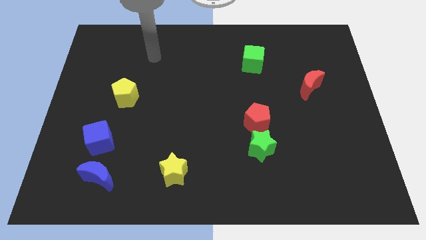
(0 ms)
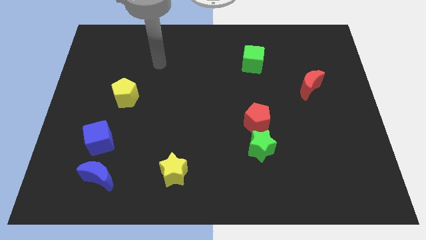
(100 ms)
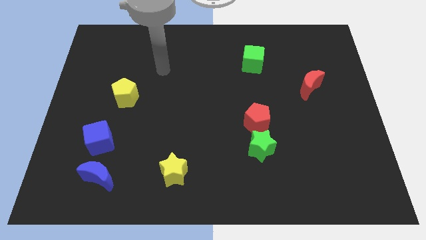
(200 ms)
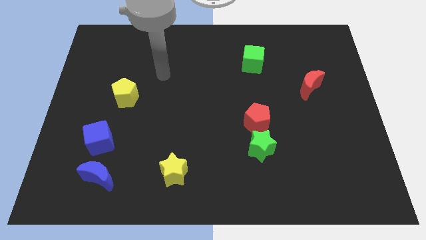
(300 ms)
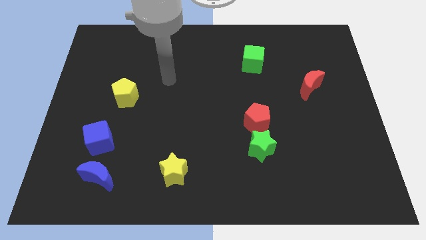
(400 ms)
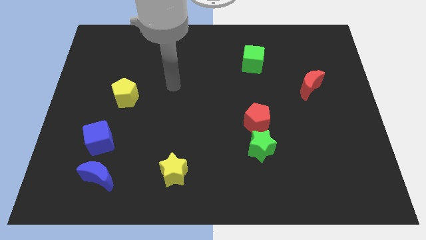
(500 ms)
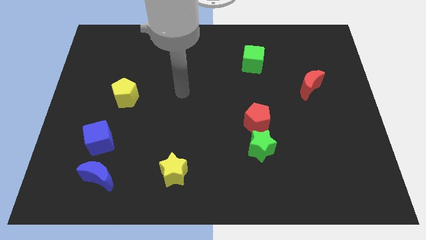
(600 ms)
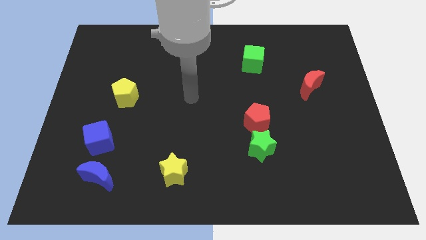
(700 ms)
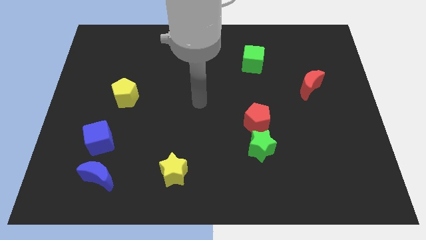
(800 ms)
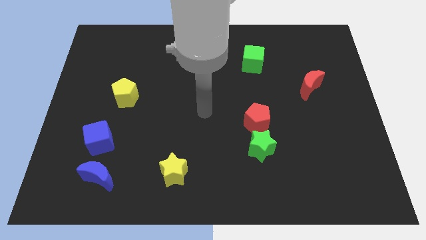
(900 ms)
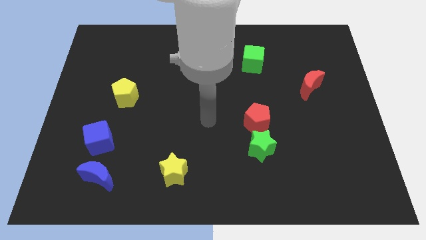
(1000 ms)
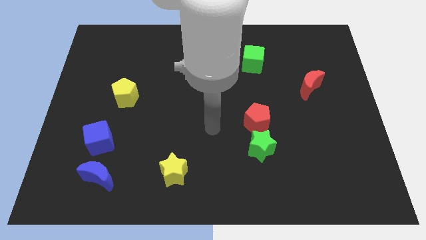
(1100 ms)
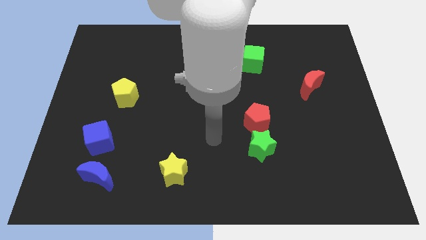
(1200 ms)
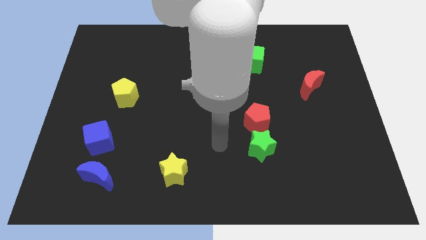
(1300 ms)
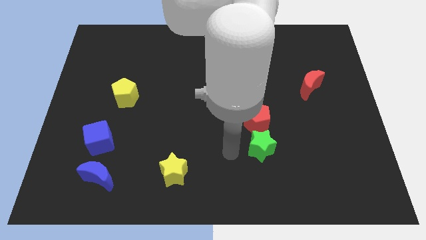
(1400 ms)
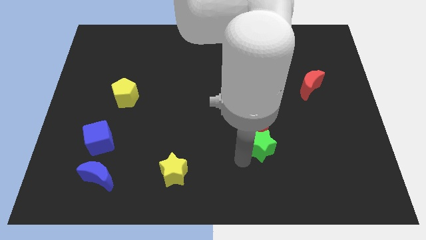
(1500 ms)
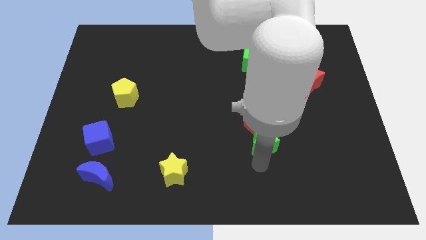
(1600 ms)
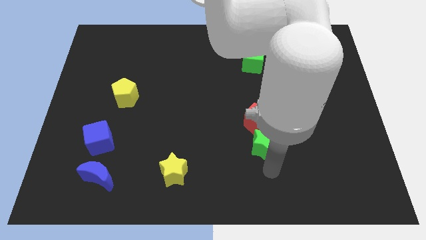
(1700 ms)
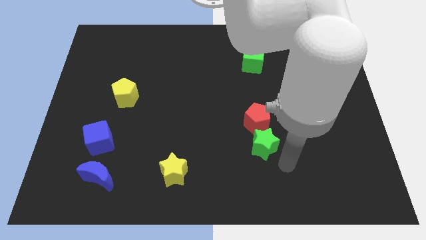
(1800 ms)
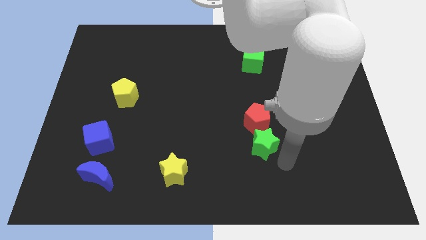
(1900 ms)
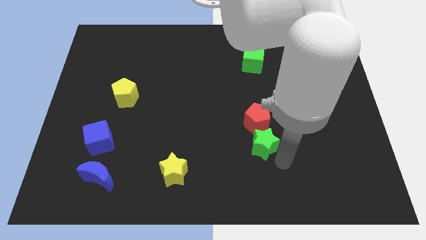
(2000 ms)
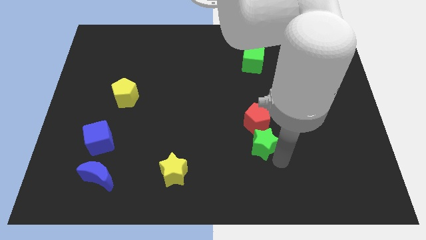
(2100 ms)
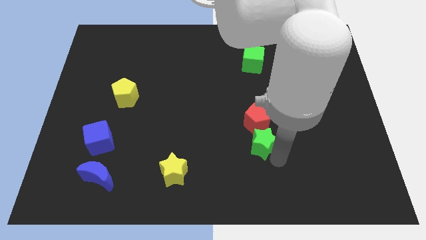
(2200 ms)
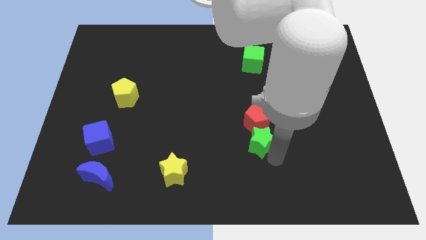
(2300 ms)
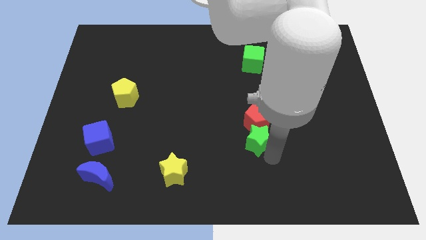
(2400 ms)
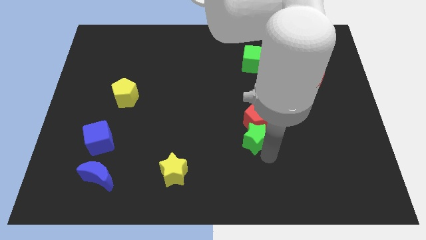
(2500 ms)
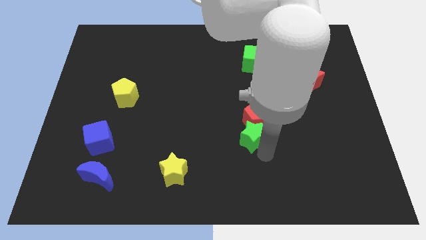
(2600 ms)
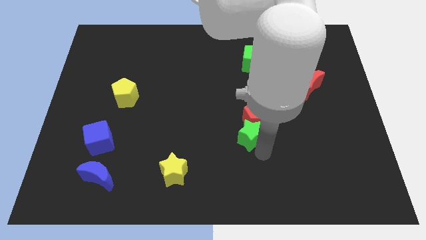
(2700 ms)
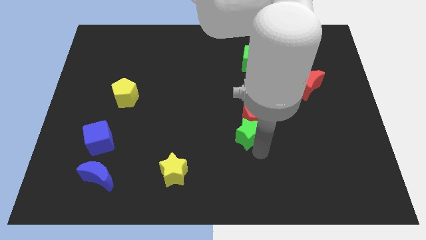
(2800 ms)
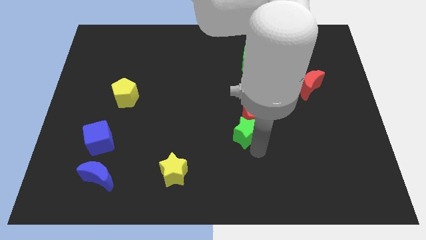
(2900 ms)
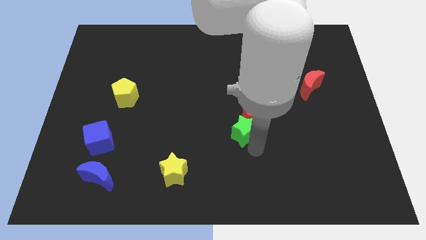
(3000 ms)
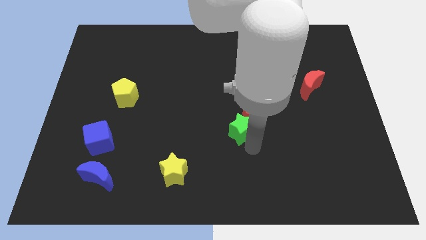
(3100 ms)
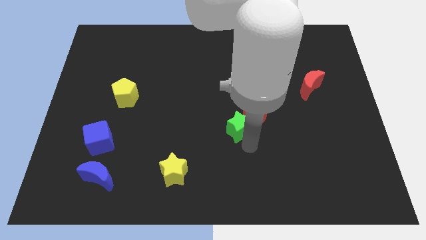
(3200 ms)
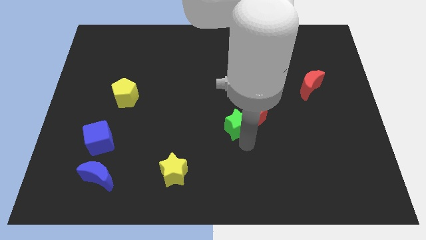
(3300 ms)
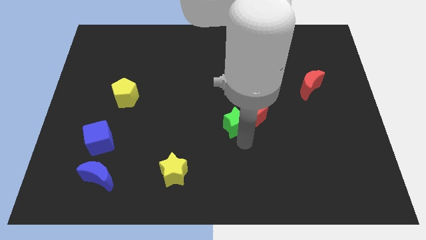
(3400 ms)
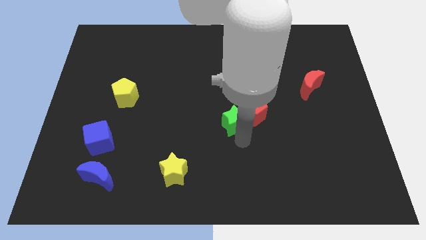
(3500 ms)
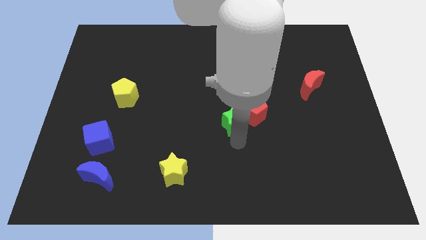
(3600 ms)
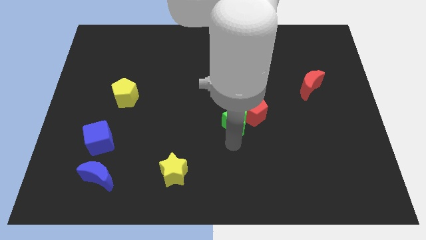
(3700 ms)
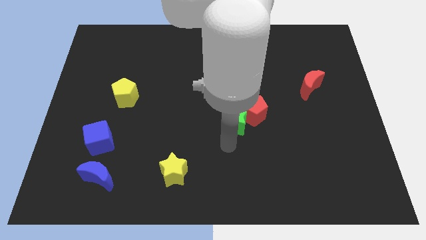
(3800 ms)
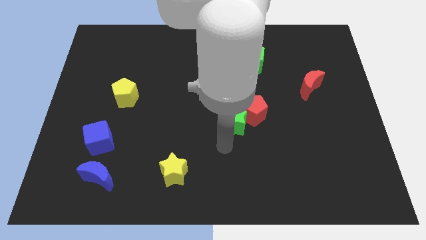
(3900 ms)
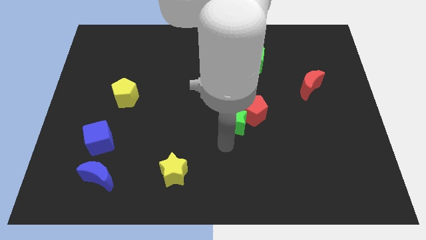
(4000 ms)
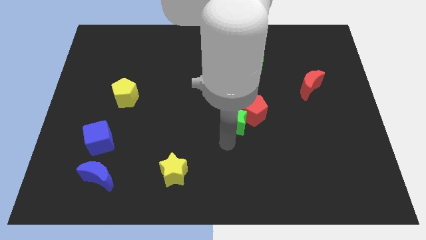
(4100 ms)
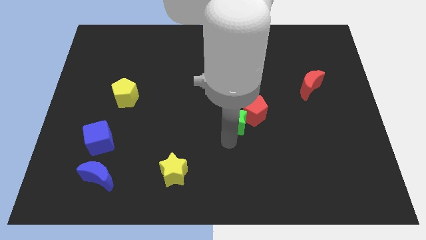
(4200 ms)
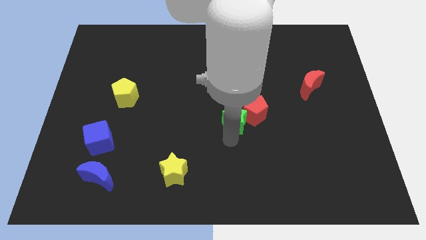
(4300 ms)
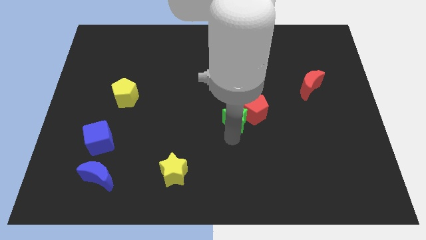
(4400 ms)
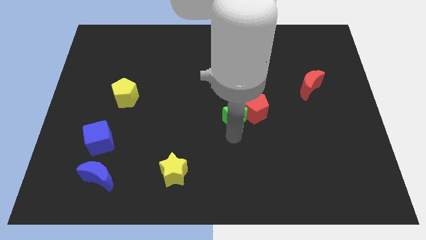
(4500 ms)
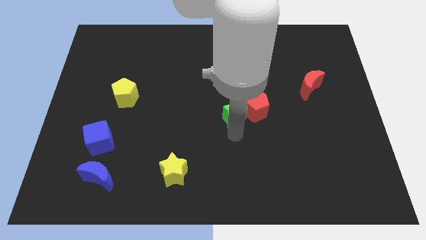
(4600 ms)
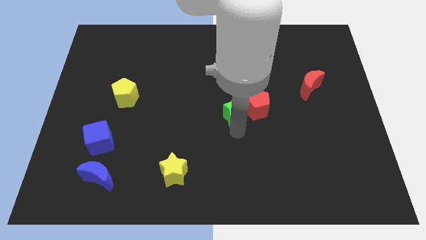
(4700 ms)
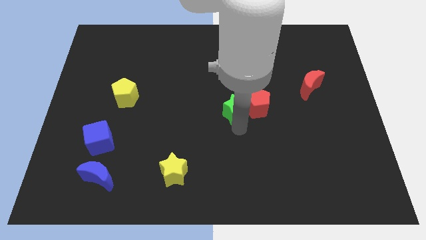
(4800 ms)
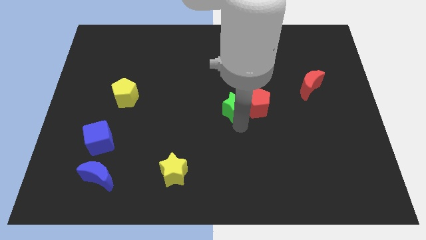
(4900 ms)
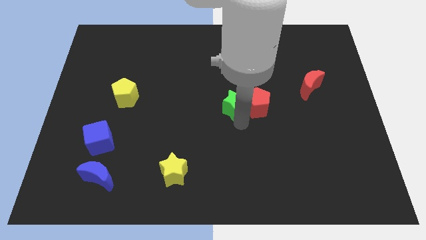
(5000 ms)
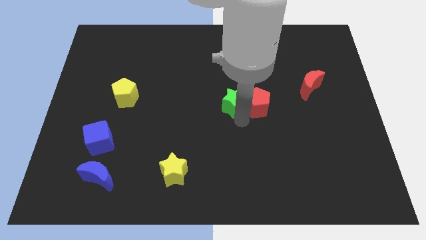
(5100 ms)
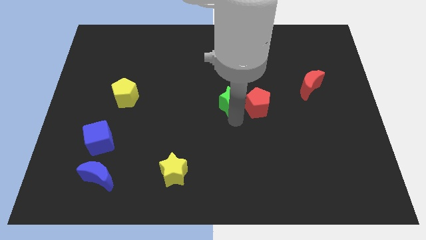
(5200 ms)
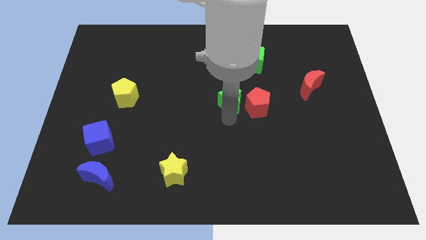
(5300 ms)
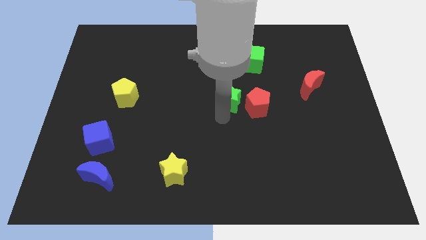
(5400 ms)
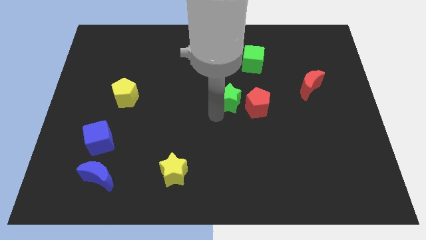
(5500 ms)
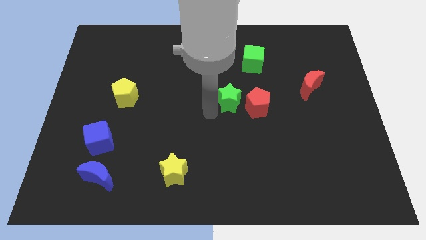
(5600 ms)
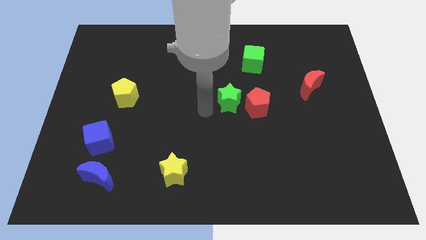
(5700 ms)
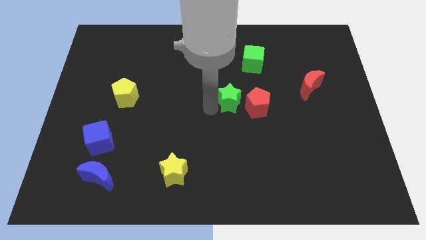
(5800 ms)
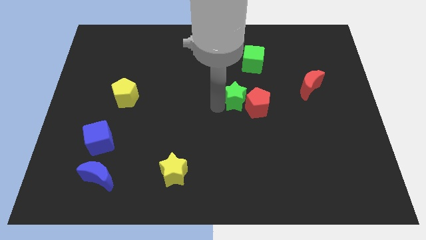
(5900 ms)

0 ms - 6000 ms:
put the green star below the green cube

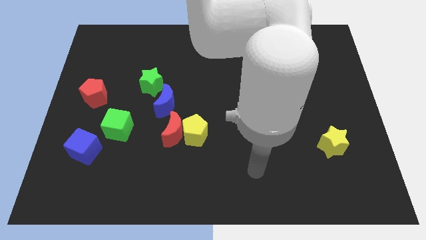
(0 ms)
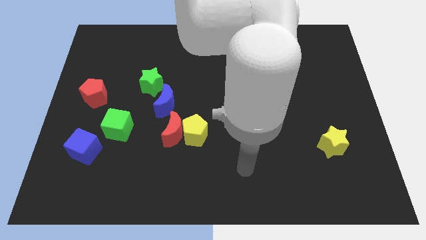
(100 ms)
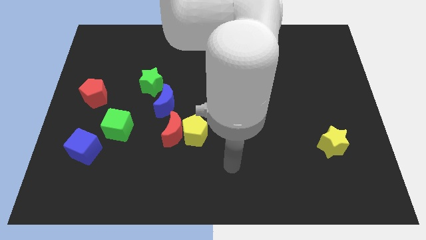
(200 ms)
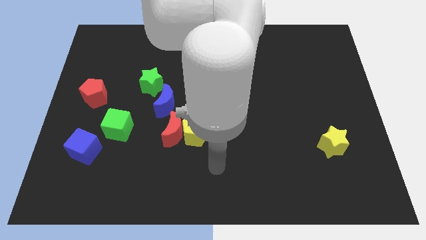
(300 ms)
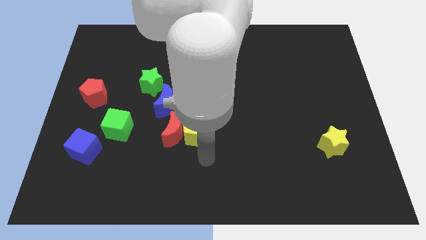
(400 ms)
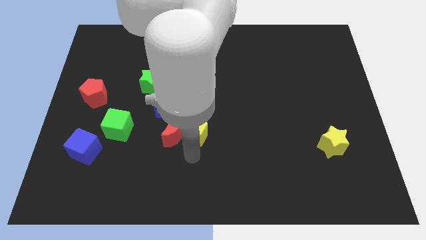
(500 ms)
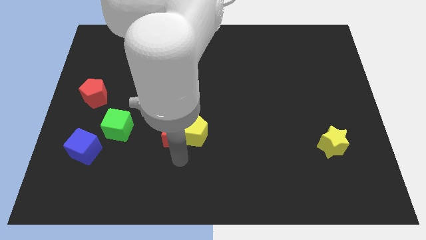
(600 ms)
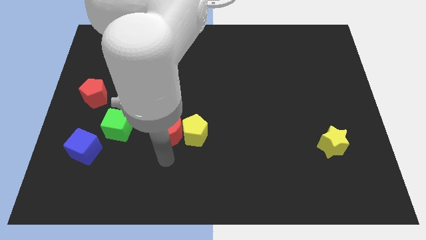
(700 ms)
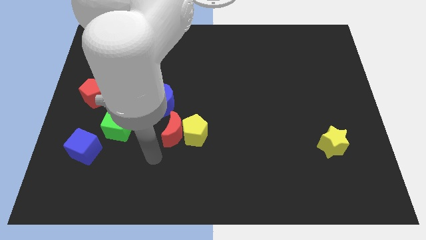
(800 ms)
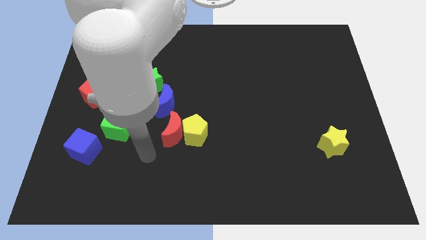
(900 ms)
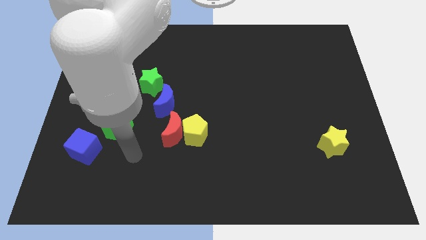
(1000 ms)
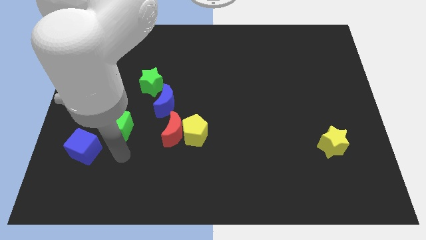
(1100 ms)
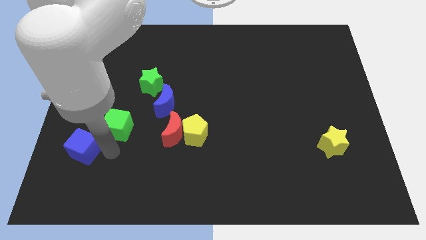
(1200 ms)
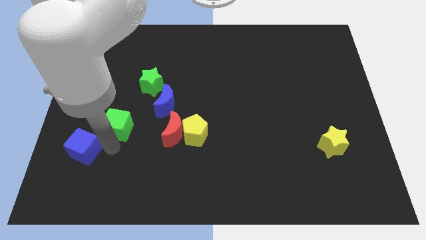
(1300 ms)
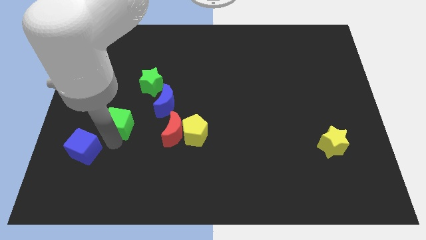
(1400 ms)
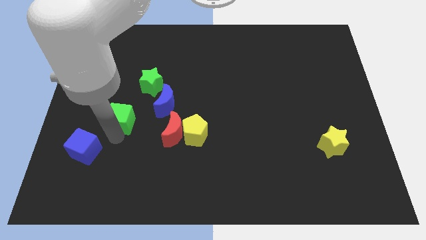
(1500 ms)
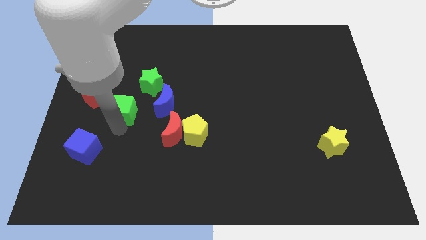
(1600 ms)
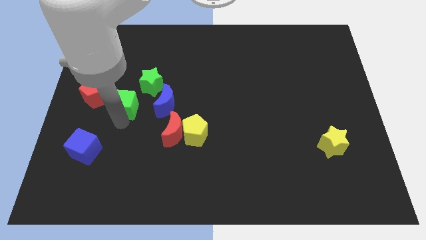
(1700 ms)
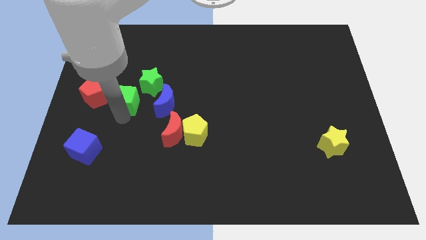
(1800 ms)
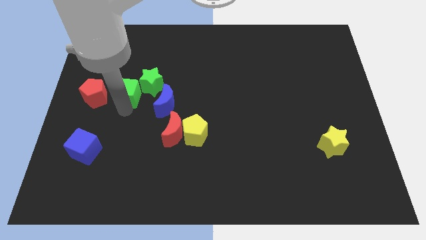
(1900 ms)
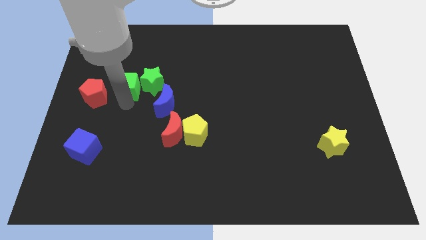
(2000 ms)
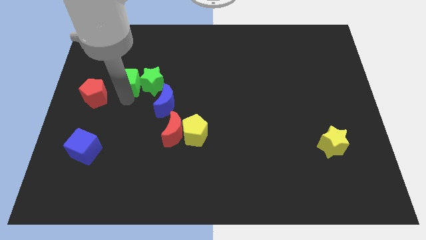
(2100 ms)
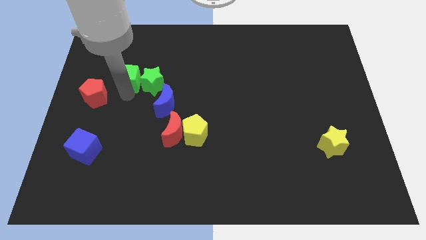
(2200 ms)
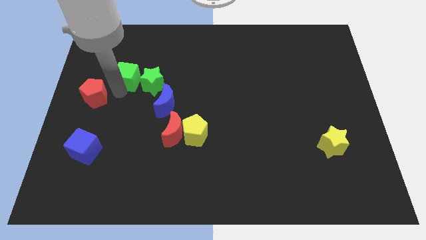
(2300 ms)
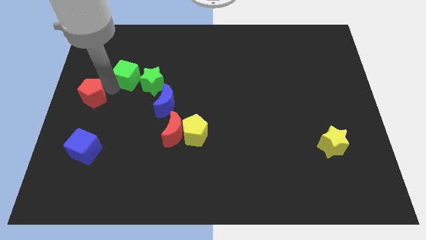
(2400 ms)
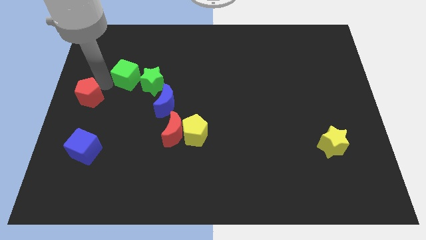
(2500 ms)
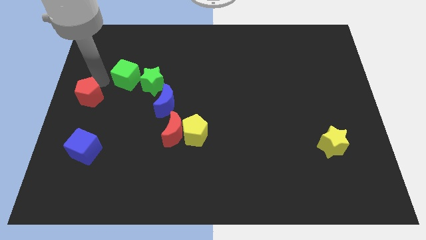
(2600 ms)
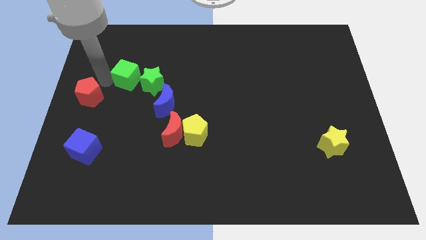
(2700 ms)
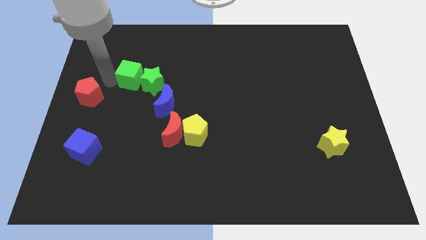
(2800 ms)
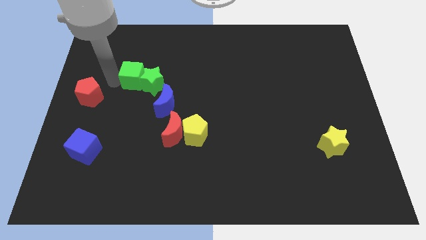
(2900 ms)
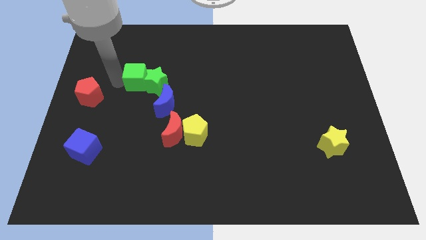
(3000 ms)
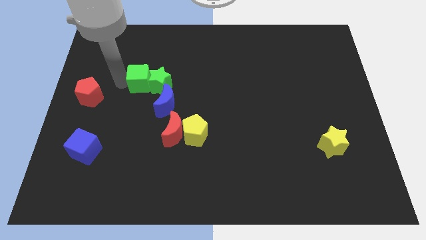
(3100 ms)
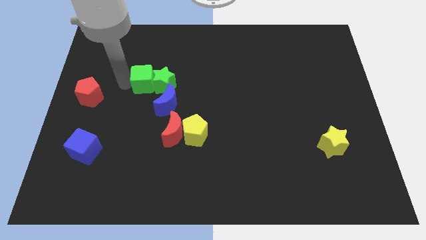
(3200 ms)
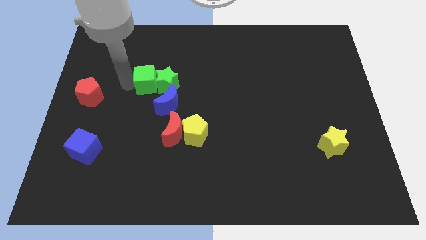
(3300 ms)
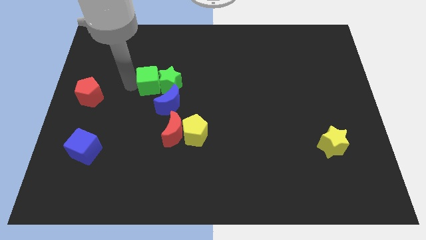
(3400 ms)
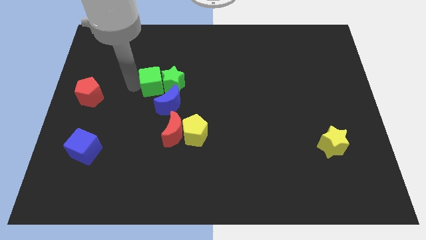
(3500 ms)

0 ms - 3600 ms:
slide the green cube to the top of the blue moon
